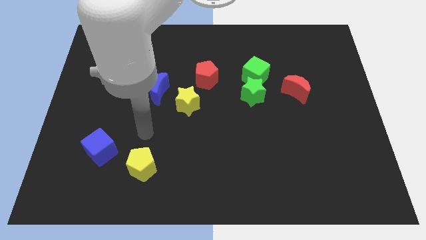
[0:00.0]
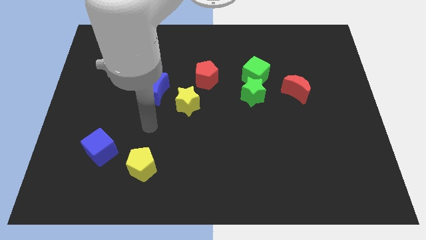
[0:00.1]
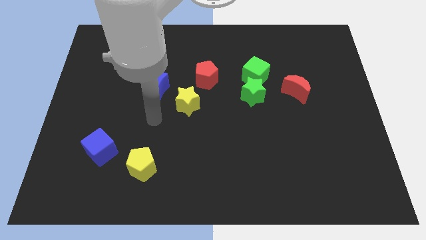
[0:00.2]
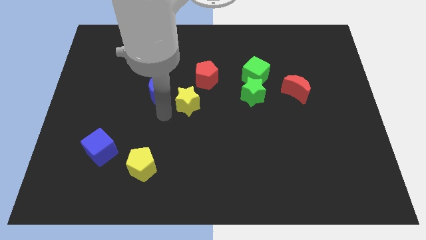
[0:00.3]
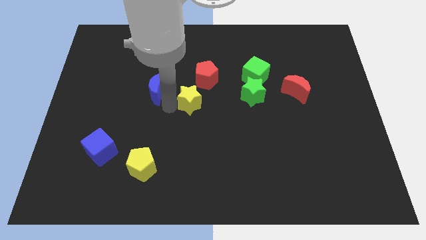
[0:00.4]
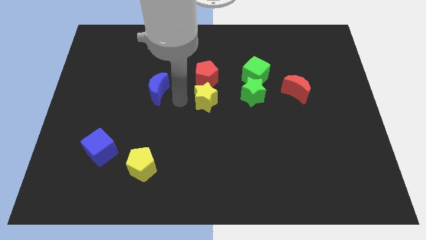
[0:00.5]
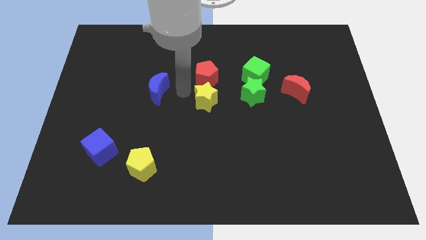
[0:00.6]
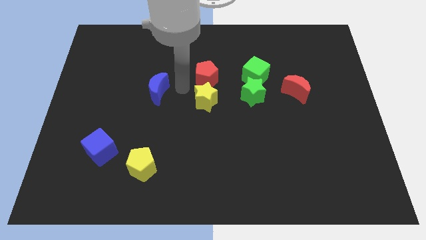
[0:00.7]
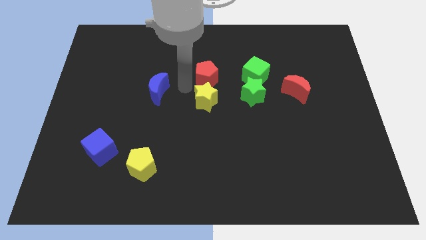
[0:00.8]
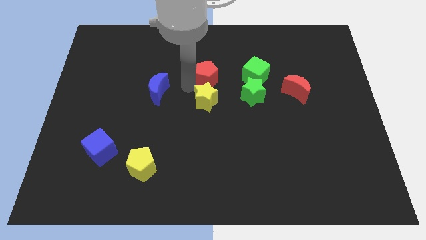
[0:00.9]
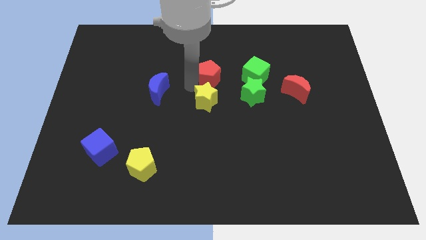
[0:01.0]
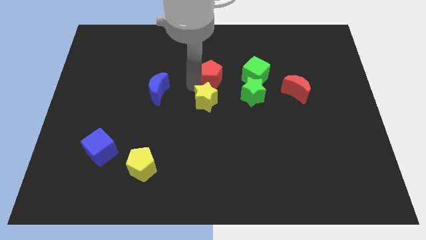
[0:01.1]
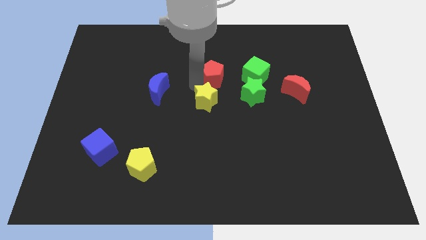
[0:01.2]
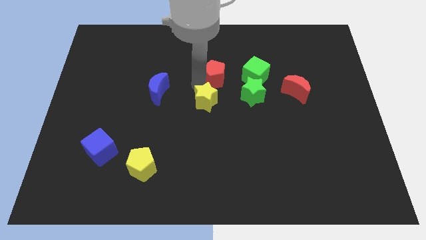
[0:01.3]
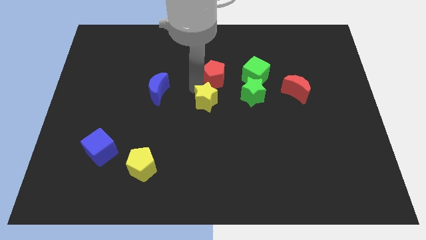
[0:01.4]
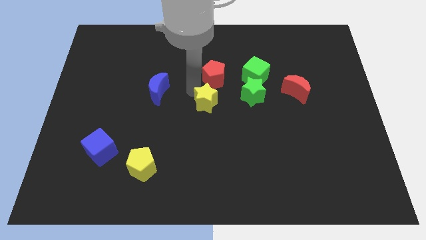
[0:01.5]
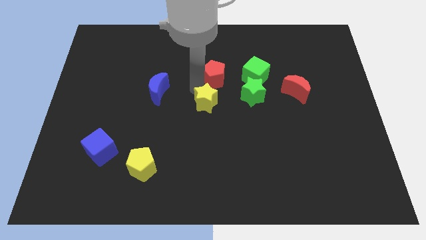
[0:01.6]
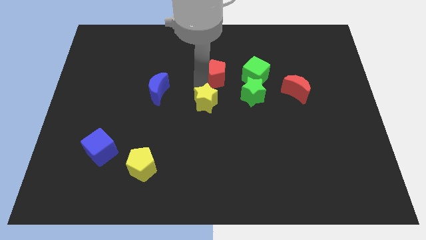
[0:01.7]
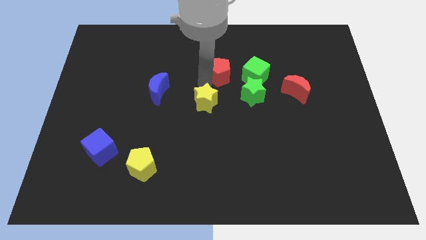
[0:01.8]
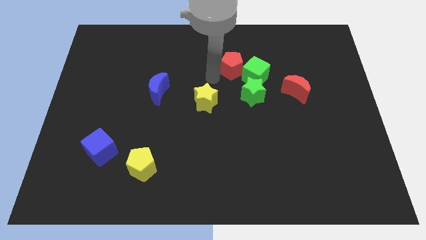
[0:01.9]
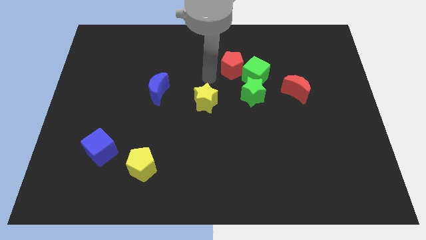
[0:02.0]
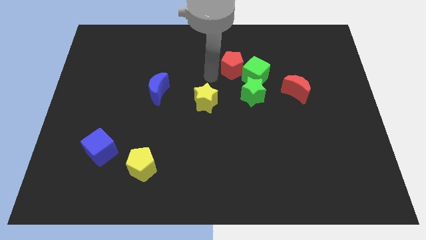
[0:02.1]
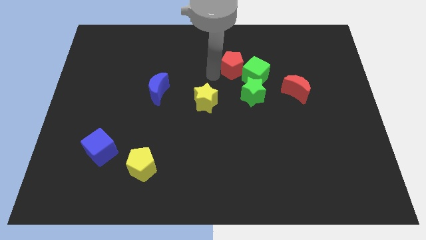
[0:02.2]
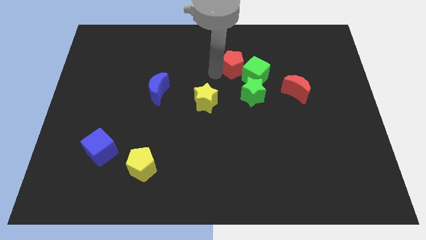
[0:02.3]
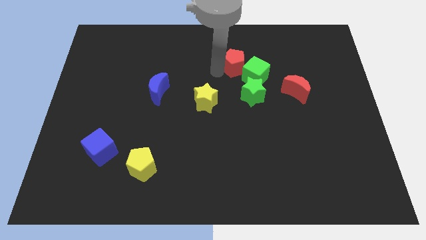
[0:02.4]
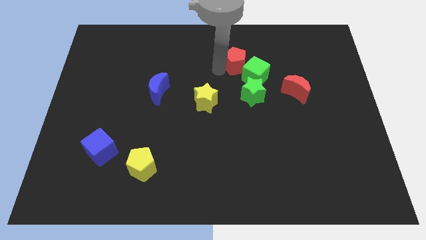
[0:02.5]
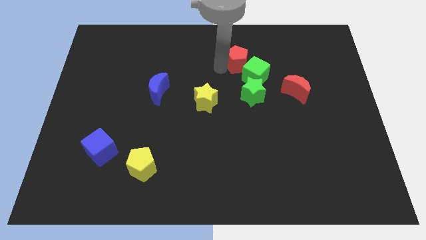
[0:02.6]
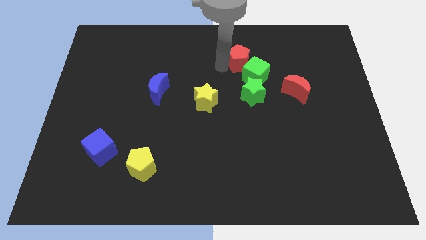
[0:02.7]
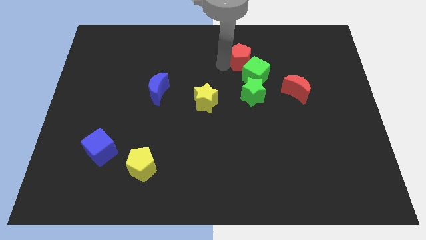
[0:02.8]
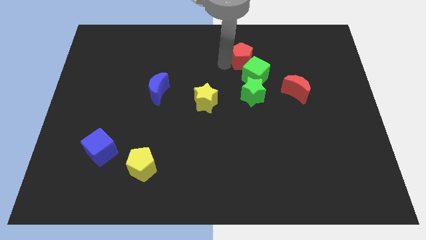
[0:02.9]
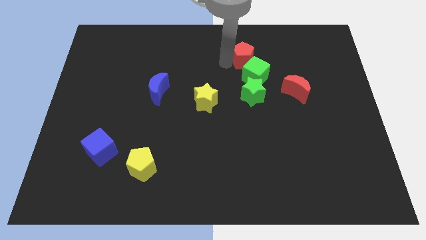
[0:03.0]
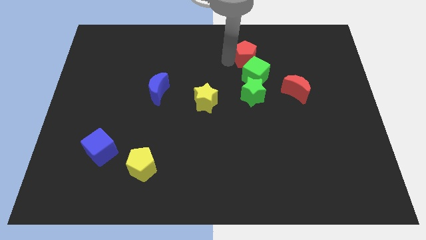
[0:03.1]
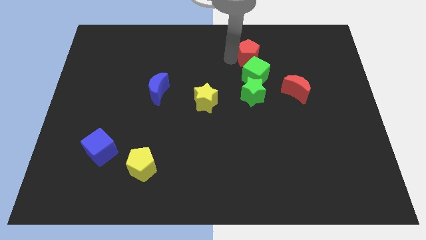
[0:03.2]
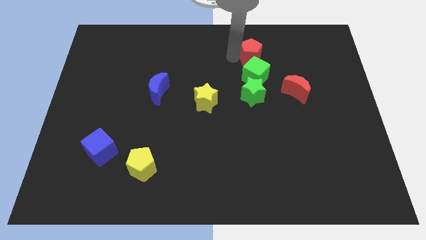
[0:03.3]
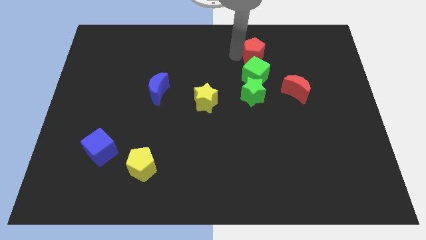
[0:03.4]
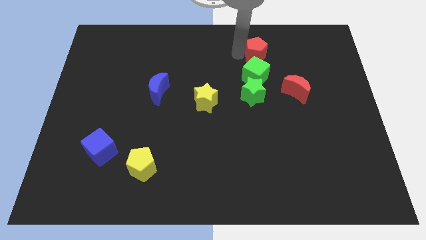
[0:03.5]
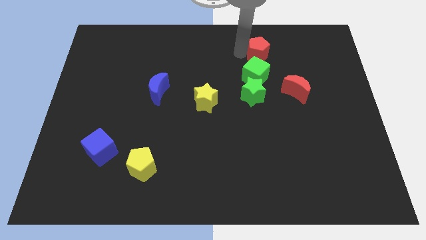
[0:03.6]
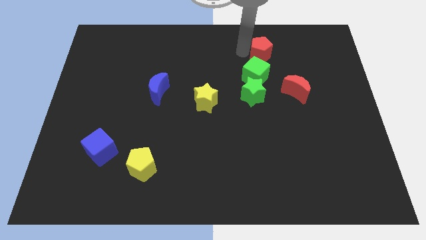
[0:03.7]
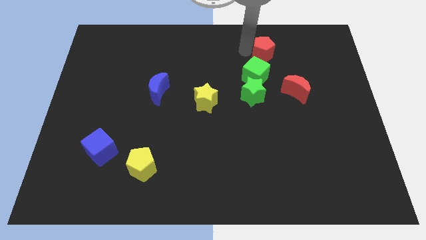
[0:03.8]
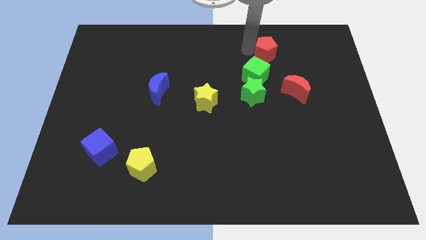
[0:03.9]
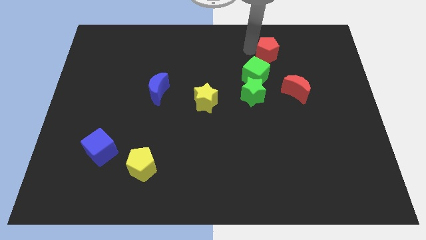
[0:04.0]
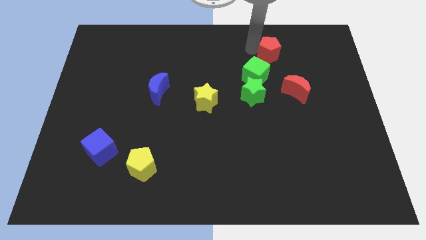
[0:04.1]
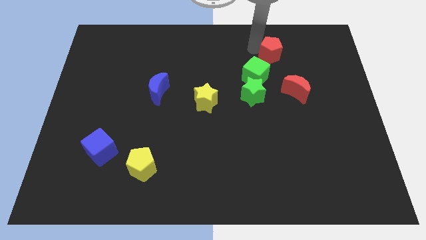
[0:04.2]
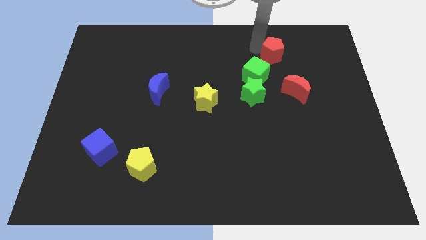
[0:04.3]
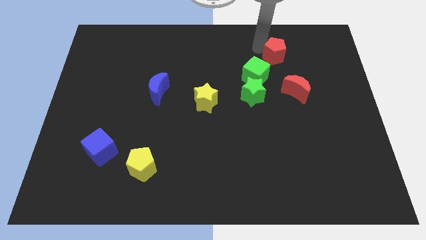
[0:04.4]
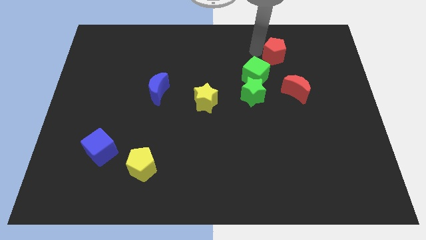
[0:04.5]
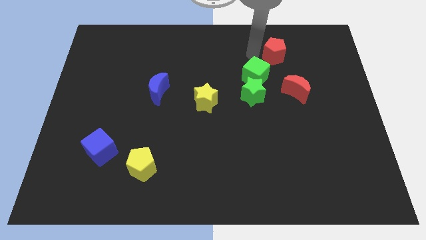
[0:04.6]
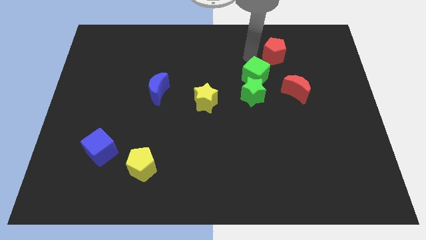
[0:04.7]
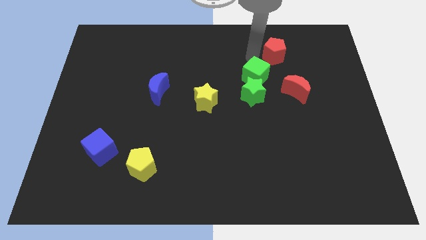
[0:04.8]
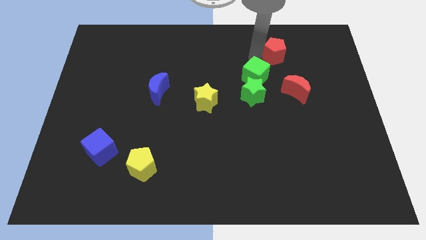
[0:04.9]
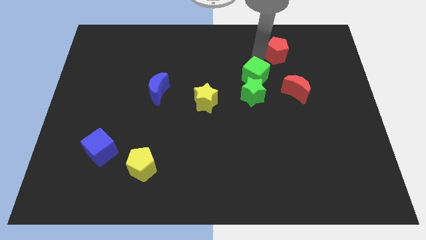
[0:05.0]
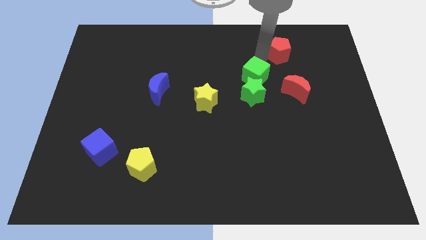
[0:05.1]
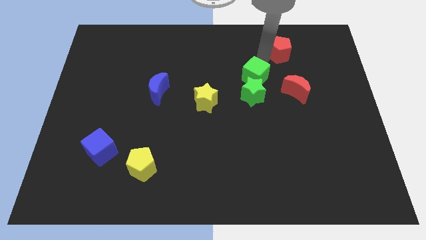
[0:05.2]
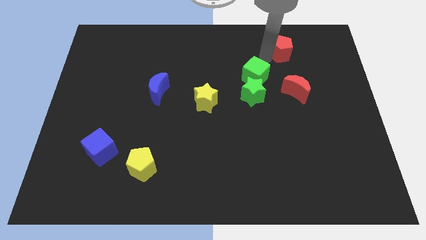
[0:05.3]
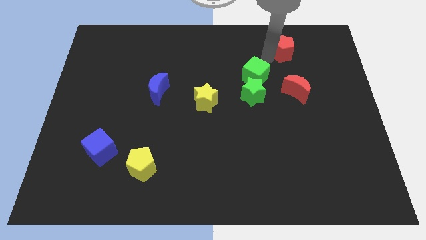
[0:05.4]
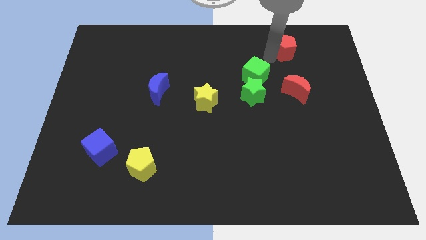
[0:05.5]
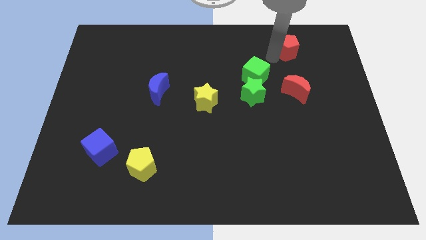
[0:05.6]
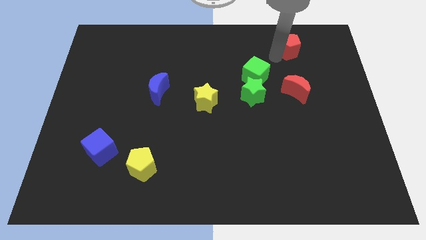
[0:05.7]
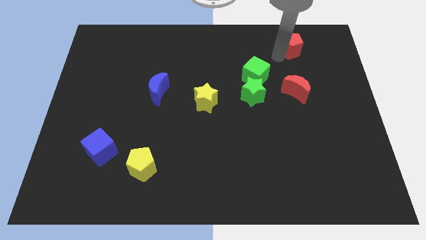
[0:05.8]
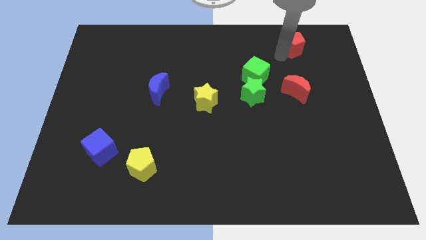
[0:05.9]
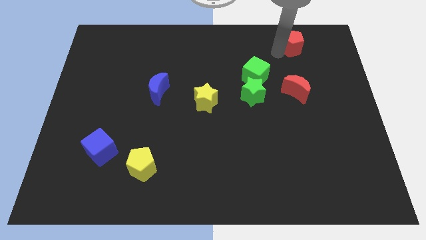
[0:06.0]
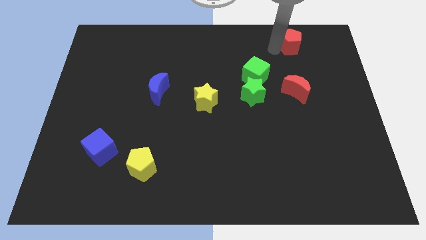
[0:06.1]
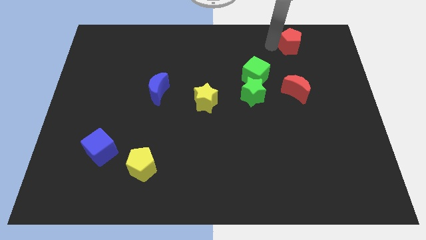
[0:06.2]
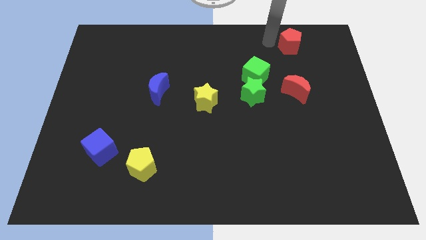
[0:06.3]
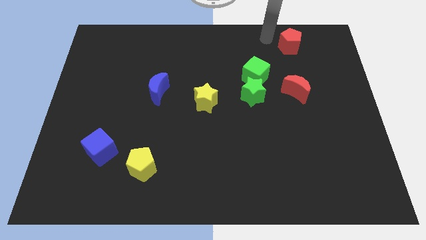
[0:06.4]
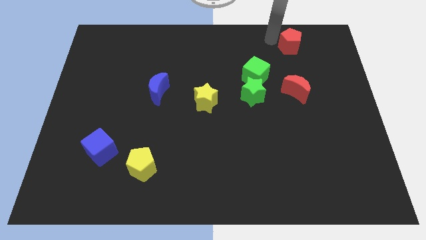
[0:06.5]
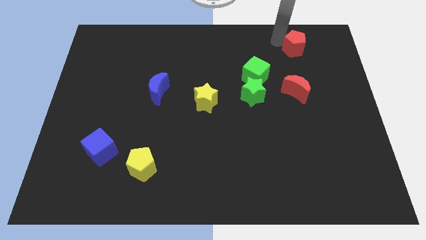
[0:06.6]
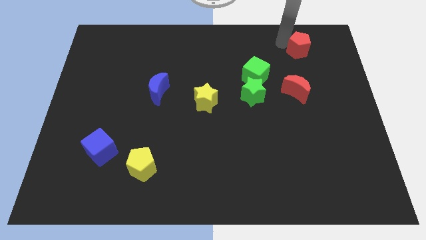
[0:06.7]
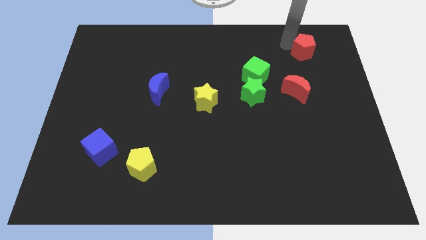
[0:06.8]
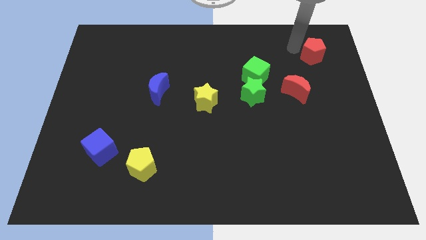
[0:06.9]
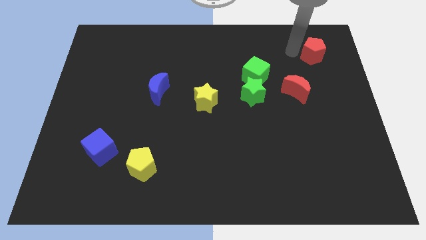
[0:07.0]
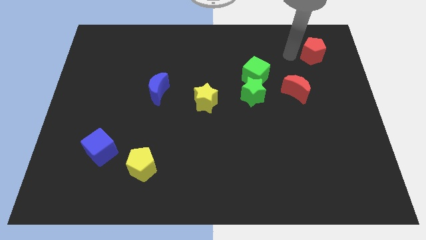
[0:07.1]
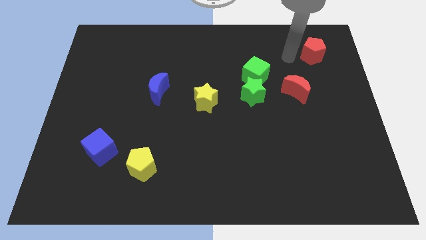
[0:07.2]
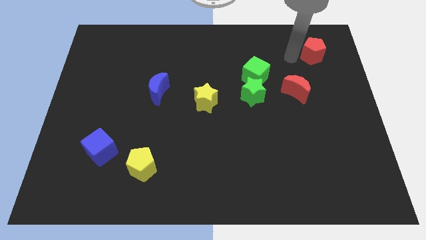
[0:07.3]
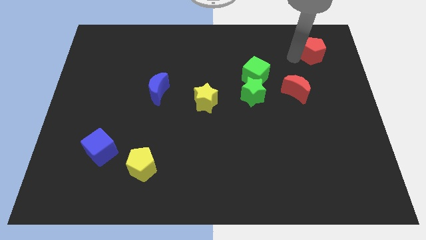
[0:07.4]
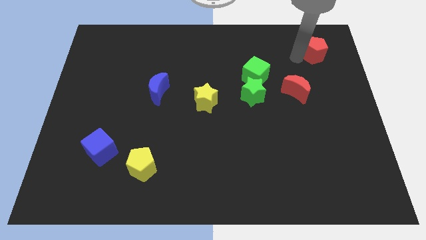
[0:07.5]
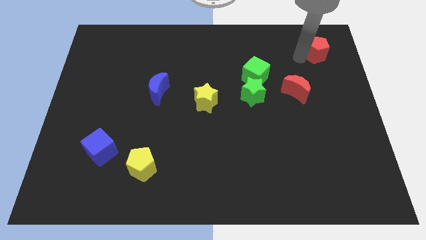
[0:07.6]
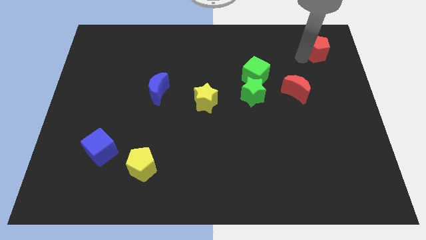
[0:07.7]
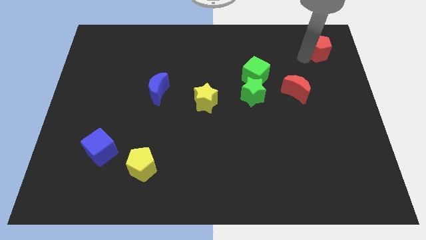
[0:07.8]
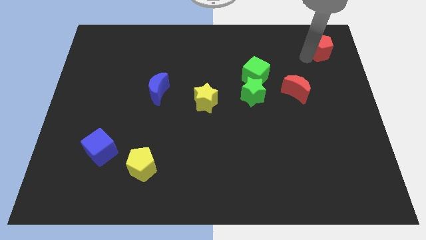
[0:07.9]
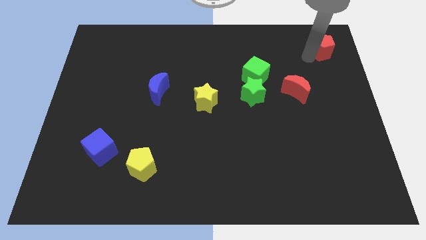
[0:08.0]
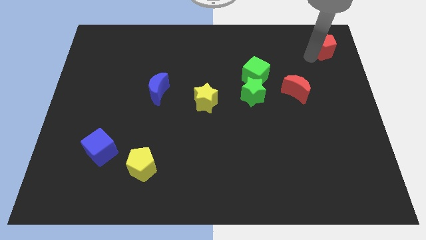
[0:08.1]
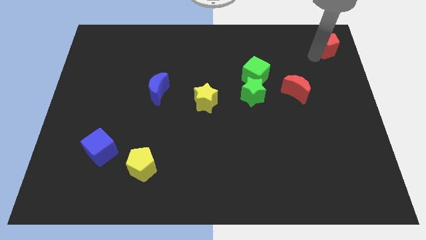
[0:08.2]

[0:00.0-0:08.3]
push the red pentagon to the top right of the board
